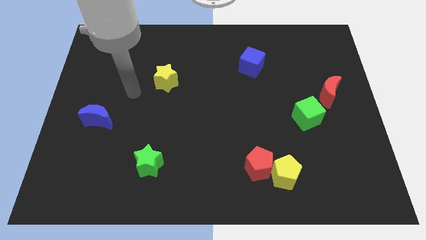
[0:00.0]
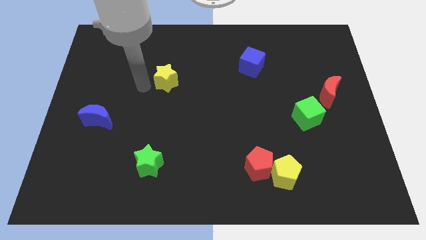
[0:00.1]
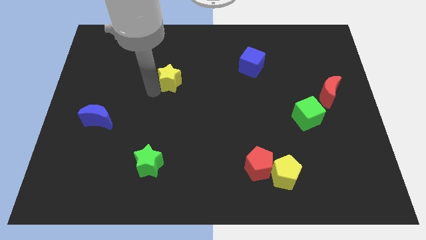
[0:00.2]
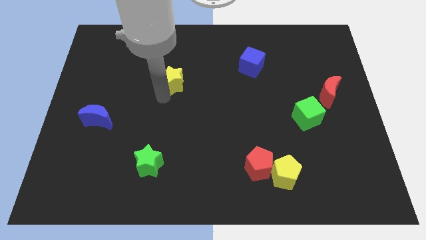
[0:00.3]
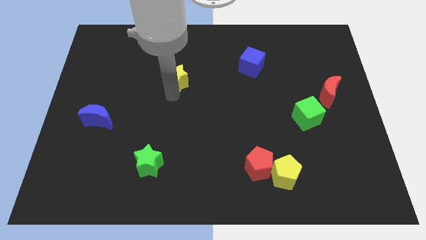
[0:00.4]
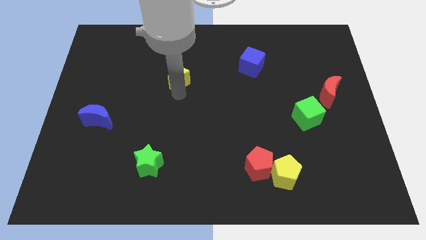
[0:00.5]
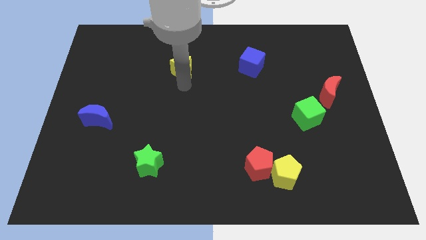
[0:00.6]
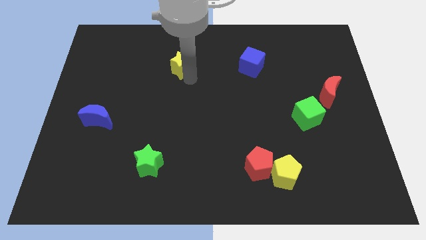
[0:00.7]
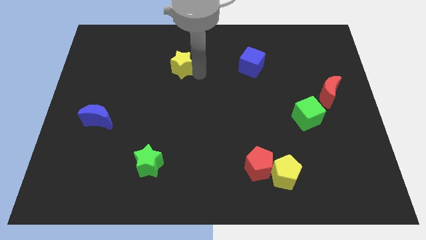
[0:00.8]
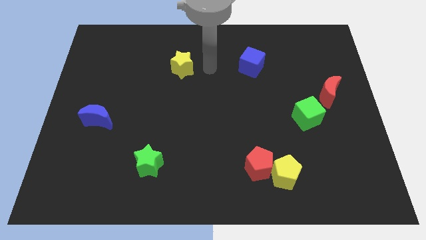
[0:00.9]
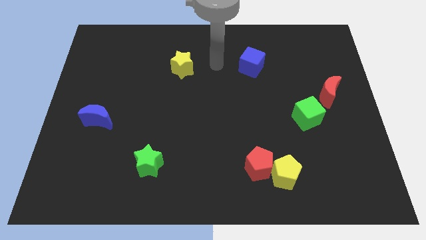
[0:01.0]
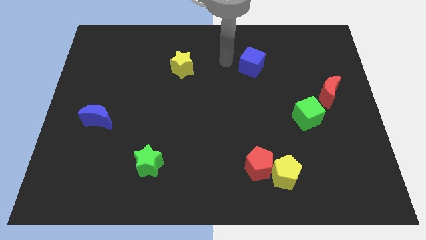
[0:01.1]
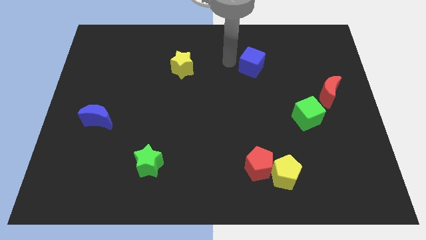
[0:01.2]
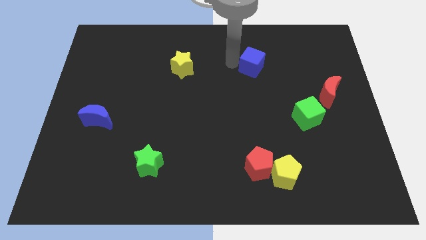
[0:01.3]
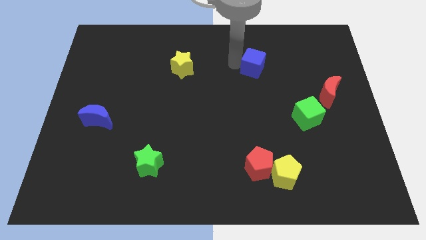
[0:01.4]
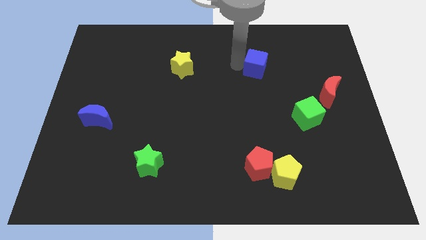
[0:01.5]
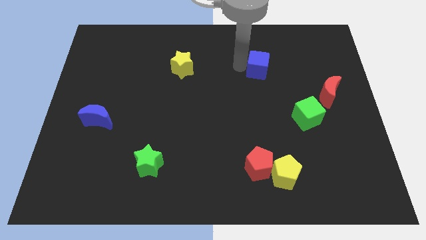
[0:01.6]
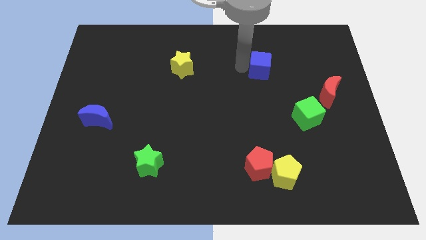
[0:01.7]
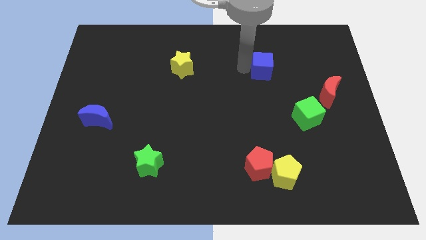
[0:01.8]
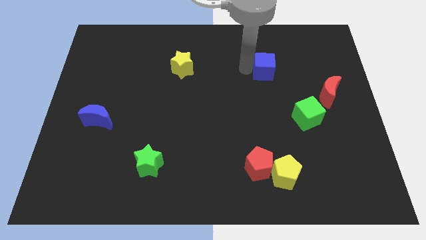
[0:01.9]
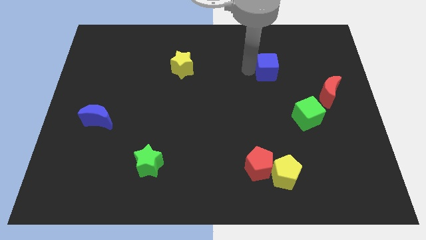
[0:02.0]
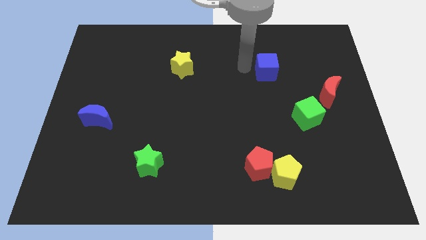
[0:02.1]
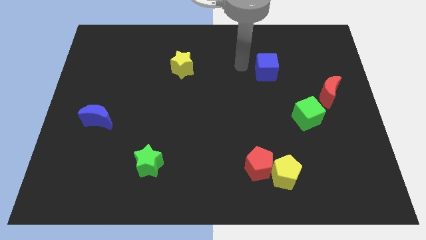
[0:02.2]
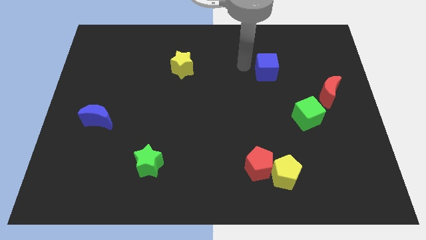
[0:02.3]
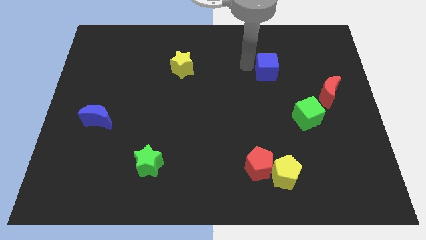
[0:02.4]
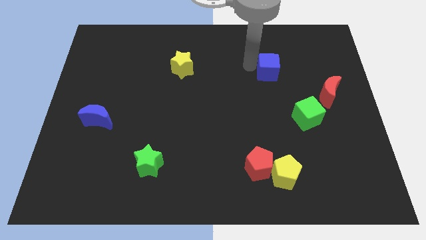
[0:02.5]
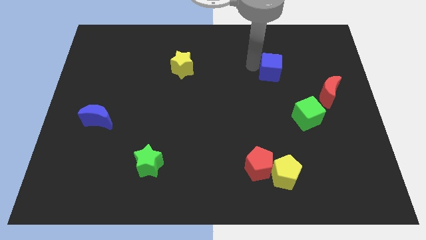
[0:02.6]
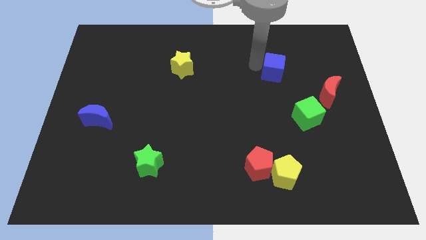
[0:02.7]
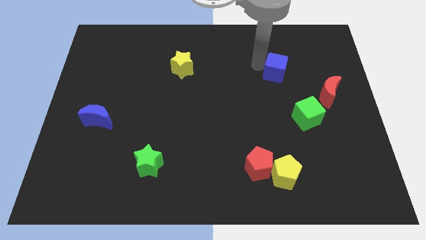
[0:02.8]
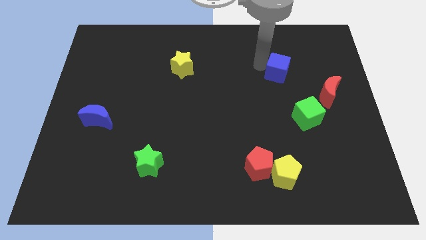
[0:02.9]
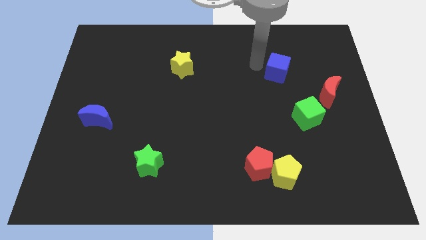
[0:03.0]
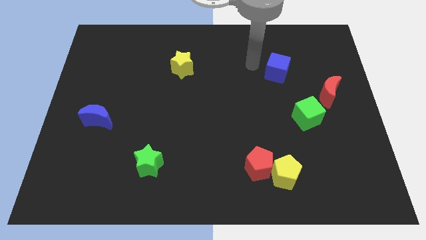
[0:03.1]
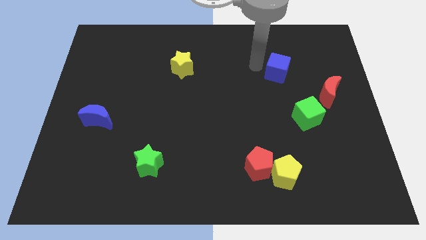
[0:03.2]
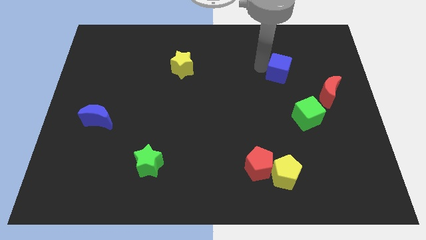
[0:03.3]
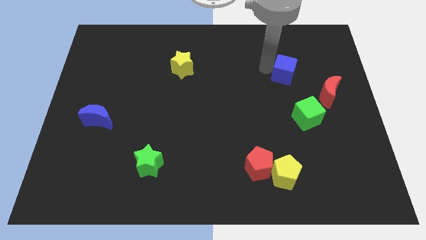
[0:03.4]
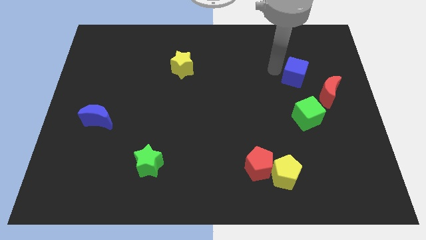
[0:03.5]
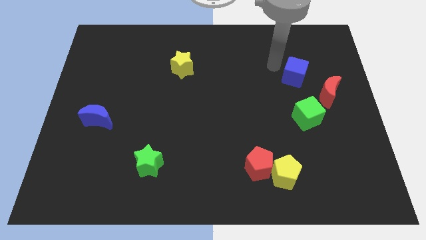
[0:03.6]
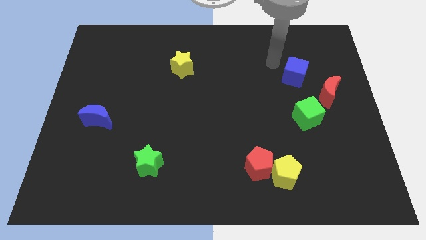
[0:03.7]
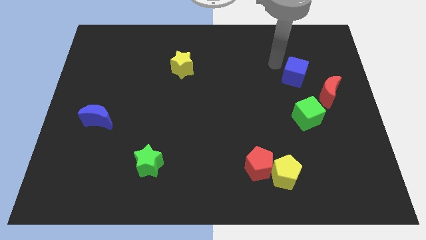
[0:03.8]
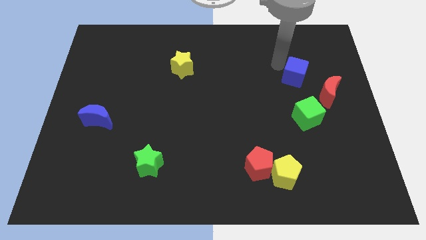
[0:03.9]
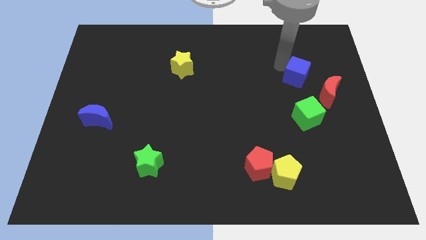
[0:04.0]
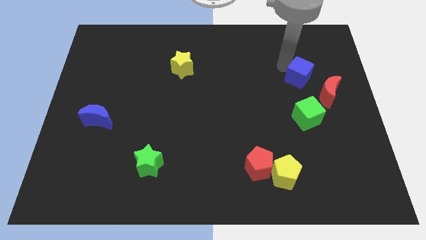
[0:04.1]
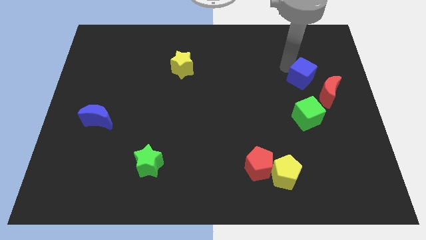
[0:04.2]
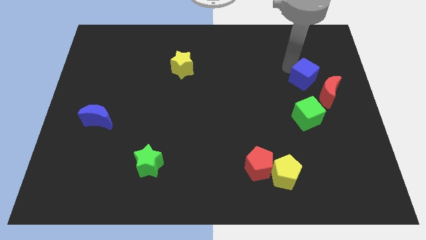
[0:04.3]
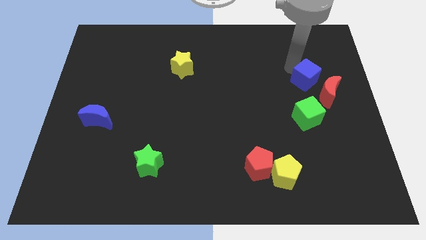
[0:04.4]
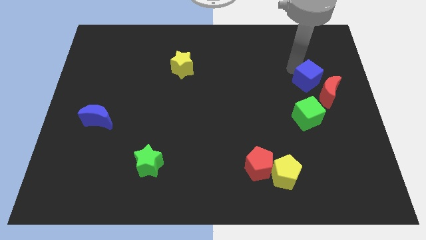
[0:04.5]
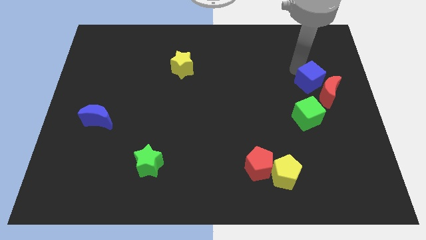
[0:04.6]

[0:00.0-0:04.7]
slide the blue cube next to the red moon

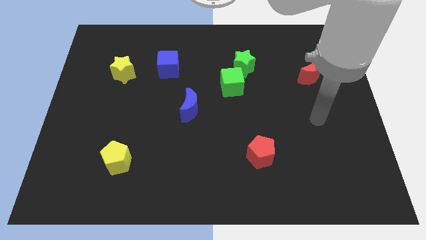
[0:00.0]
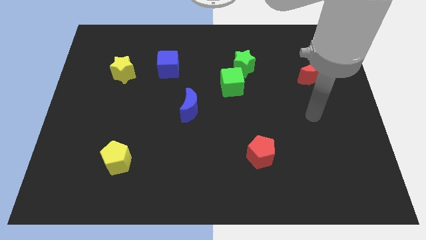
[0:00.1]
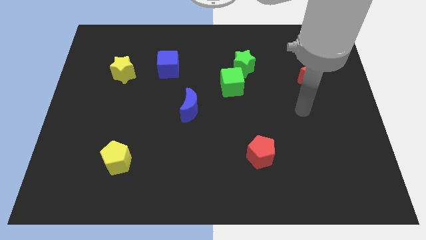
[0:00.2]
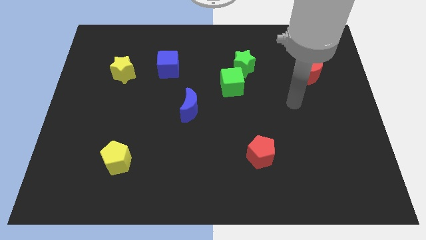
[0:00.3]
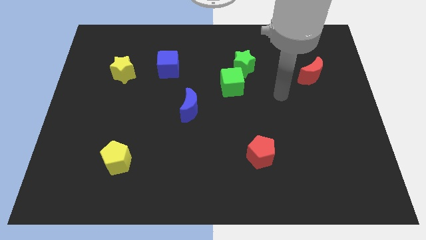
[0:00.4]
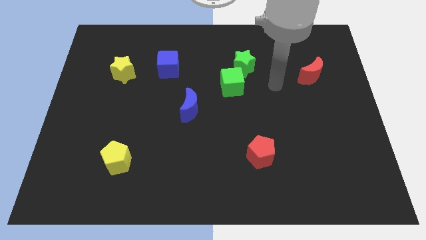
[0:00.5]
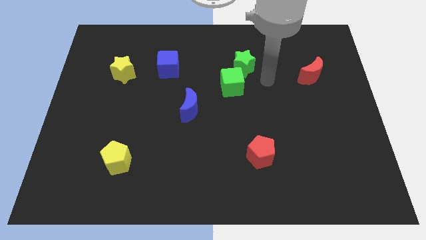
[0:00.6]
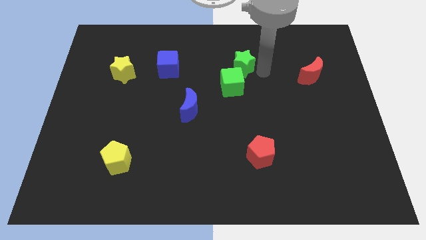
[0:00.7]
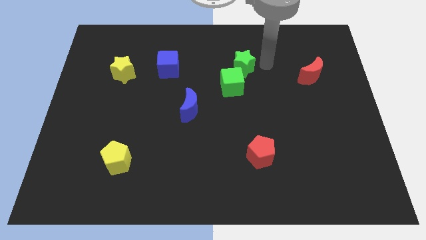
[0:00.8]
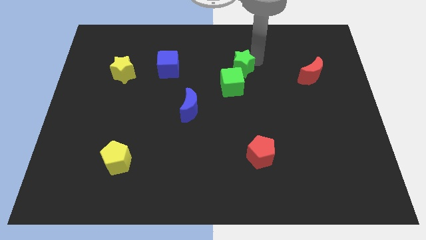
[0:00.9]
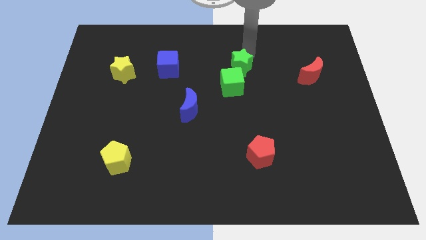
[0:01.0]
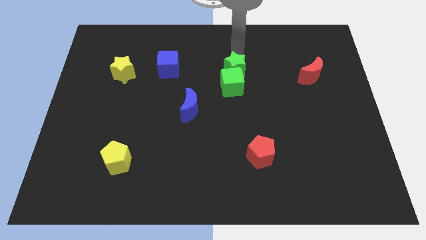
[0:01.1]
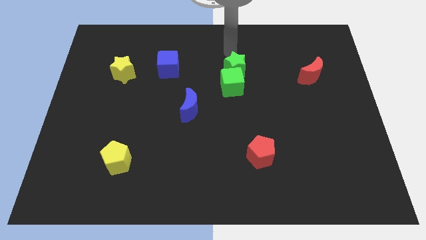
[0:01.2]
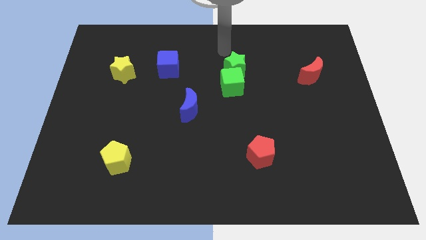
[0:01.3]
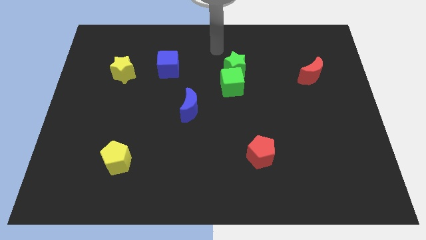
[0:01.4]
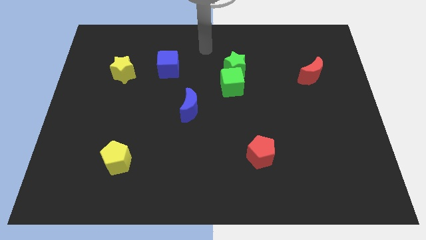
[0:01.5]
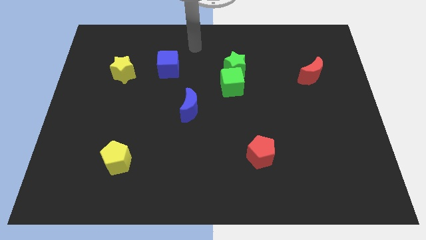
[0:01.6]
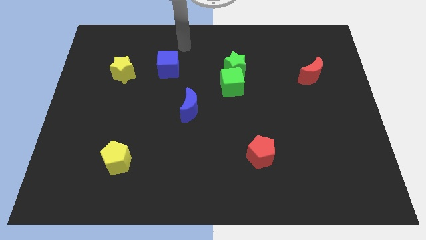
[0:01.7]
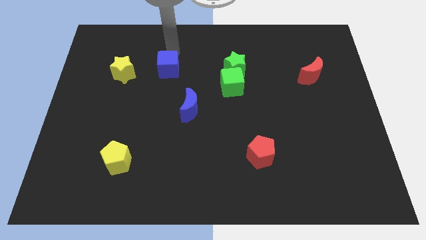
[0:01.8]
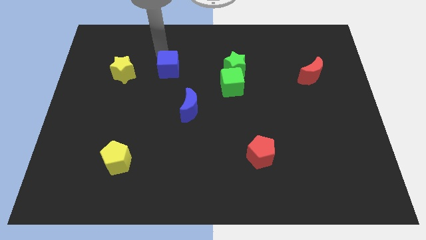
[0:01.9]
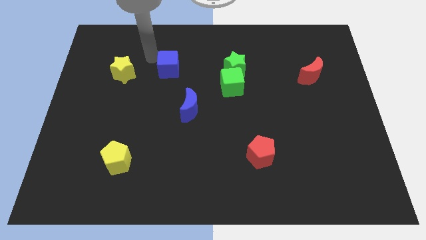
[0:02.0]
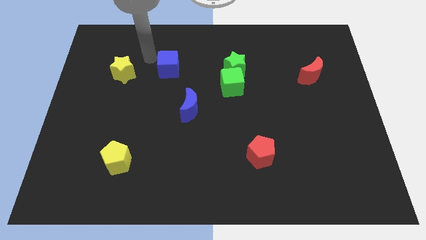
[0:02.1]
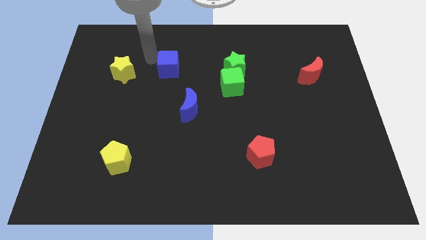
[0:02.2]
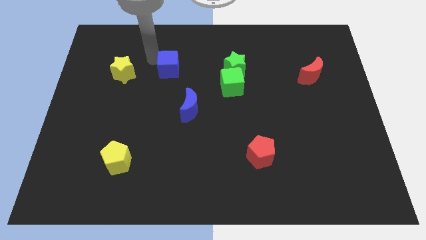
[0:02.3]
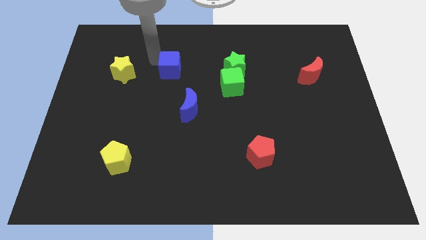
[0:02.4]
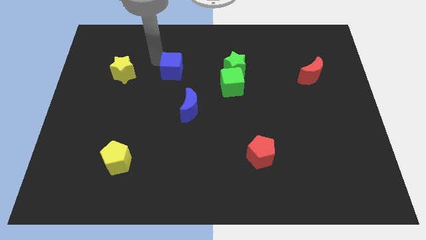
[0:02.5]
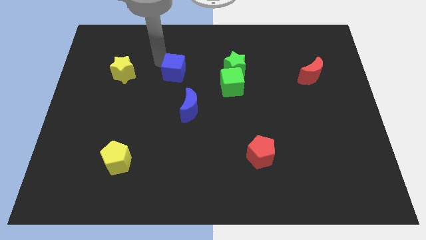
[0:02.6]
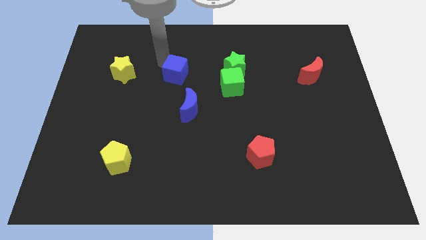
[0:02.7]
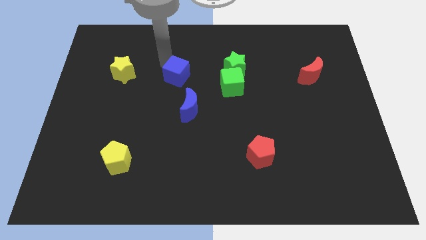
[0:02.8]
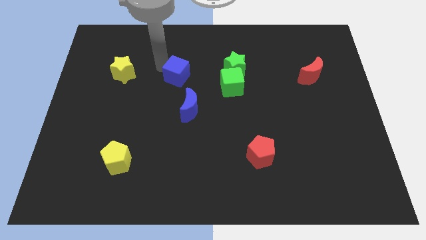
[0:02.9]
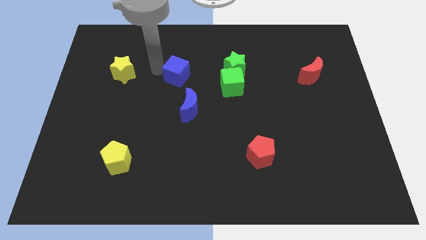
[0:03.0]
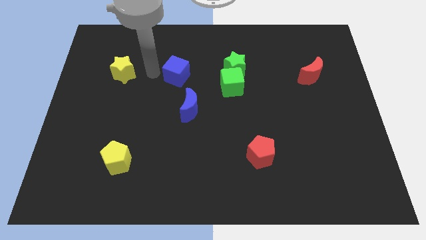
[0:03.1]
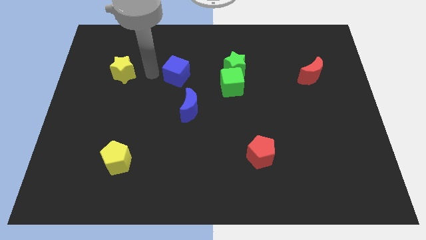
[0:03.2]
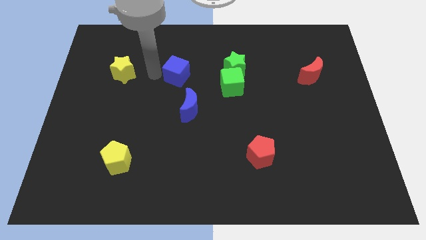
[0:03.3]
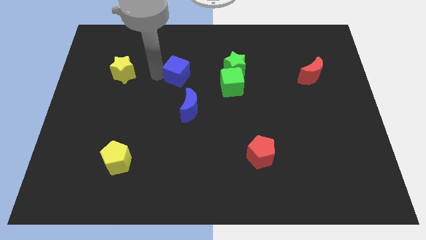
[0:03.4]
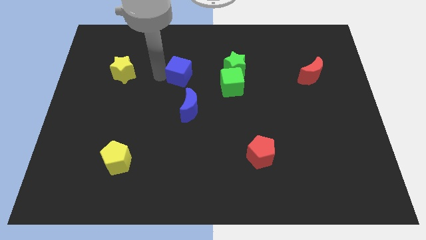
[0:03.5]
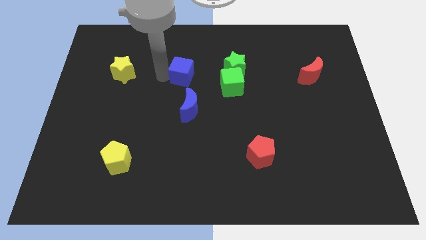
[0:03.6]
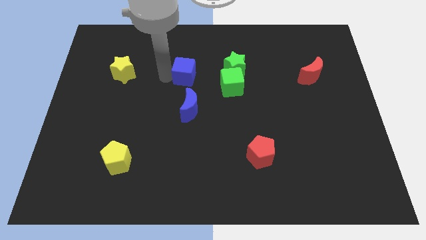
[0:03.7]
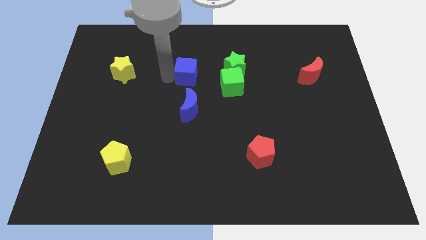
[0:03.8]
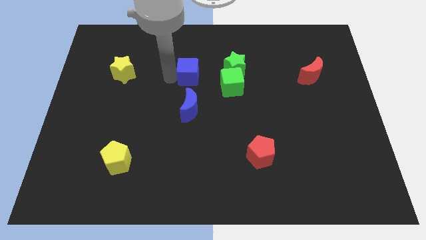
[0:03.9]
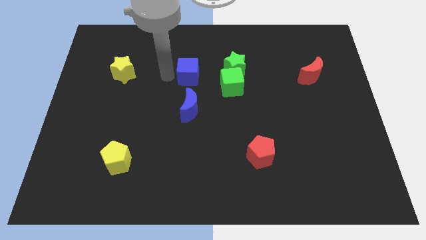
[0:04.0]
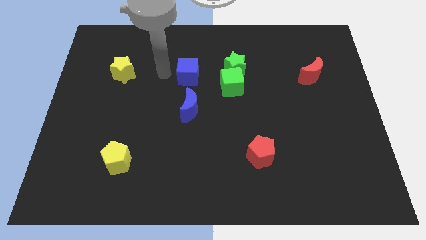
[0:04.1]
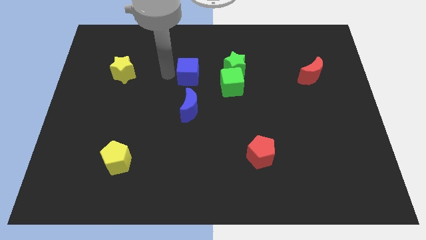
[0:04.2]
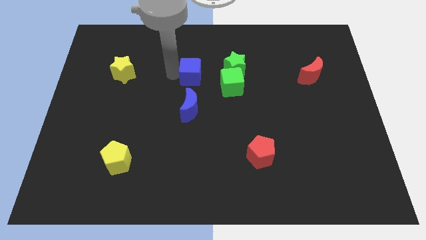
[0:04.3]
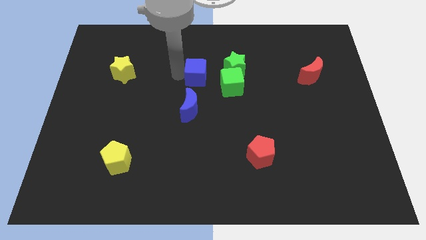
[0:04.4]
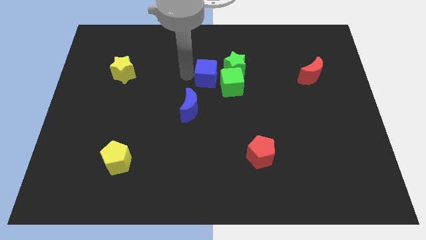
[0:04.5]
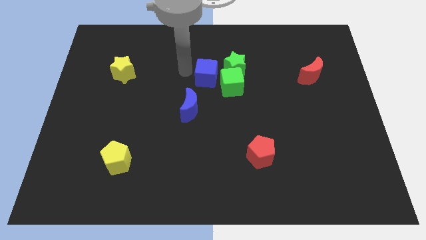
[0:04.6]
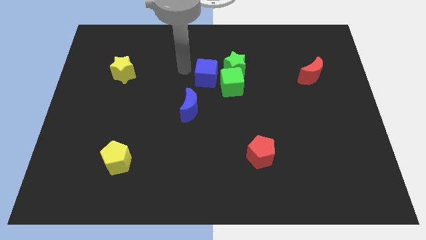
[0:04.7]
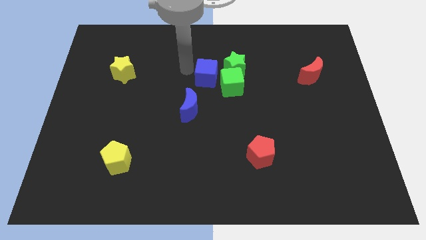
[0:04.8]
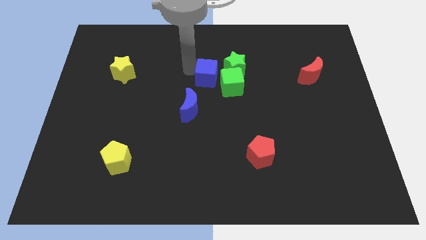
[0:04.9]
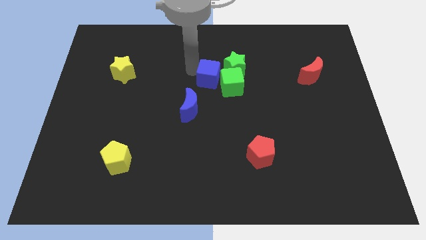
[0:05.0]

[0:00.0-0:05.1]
slide the blue cube next to the green cube
